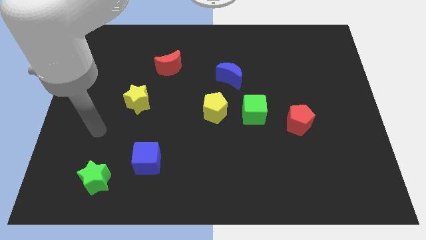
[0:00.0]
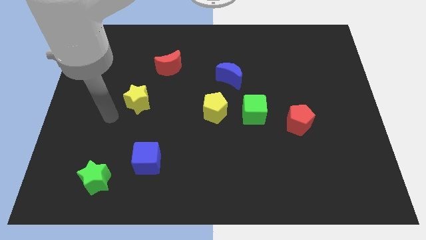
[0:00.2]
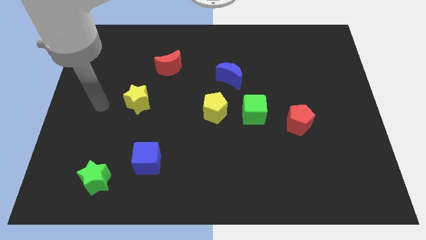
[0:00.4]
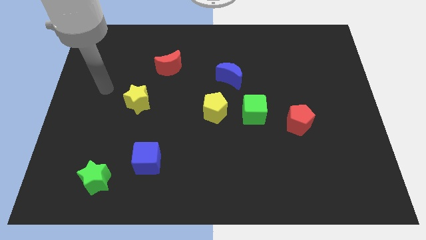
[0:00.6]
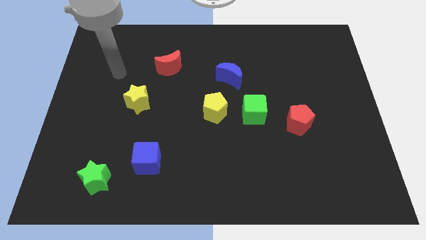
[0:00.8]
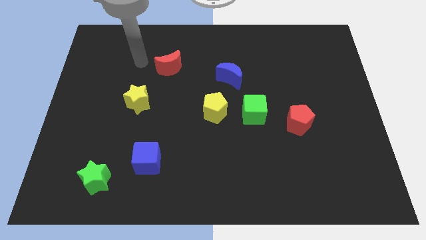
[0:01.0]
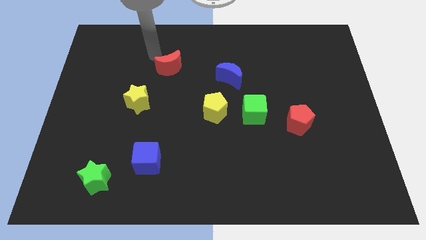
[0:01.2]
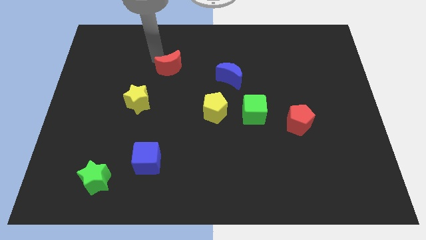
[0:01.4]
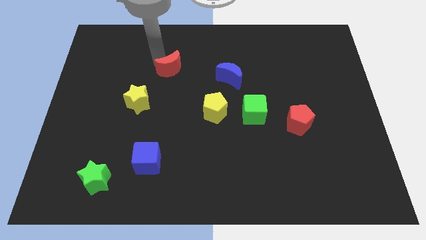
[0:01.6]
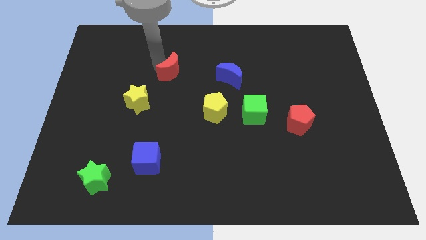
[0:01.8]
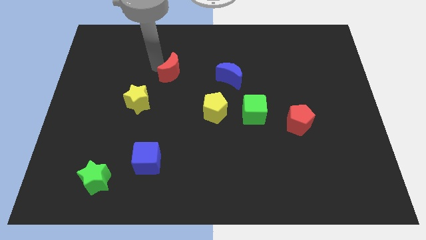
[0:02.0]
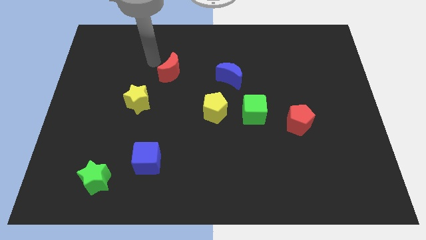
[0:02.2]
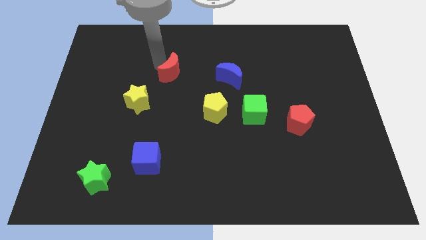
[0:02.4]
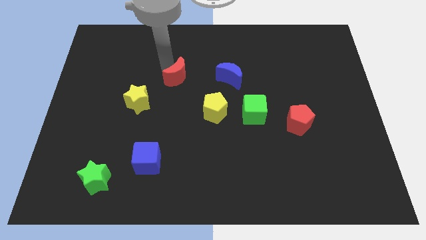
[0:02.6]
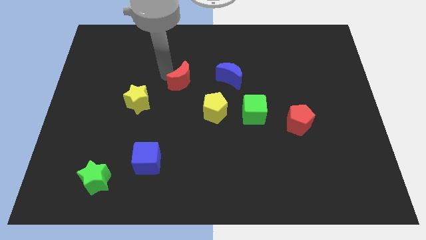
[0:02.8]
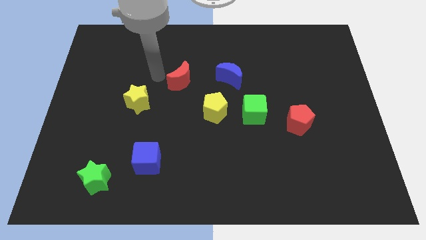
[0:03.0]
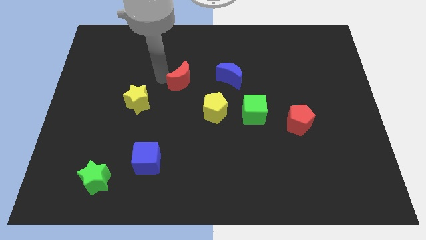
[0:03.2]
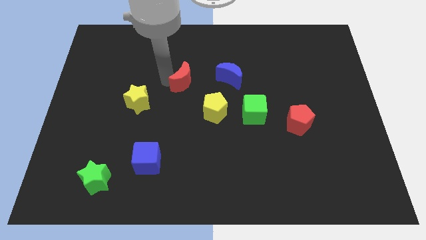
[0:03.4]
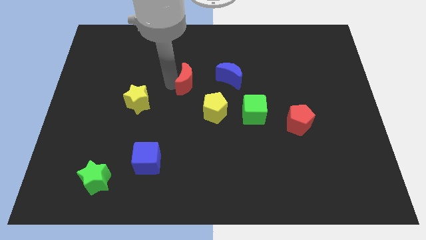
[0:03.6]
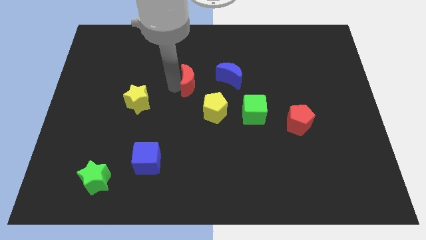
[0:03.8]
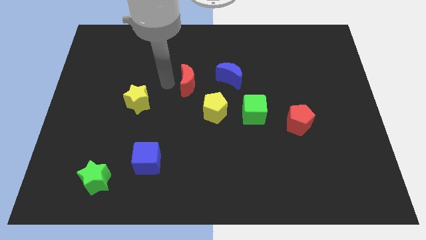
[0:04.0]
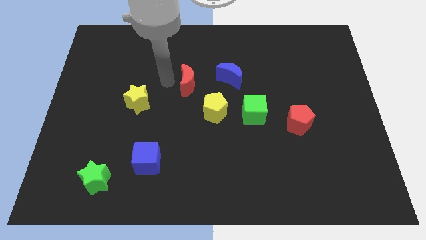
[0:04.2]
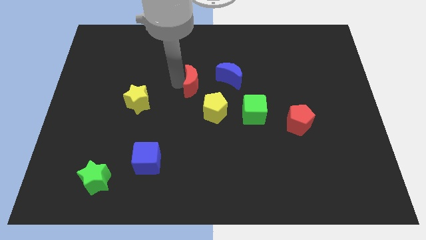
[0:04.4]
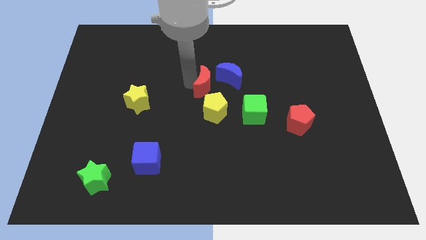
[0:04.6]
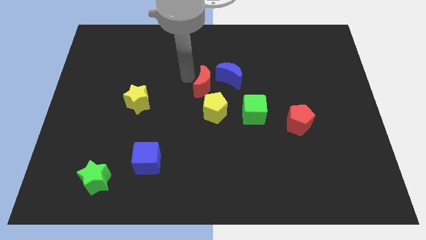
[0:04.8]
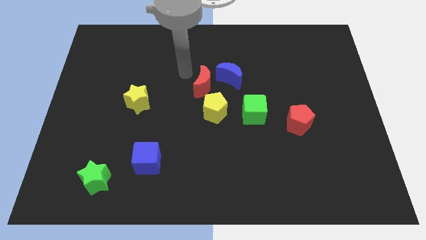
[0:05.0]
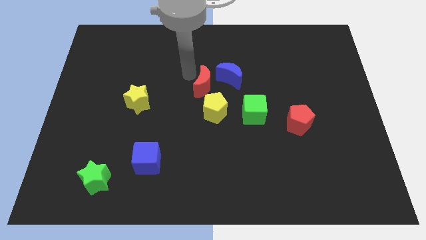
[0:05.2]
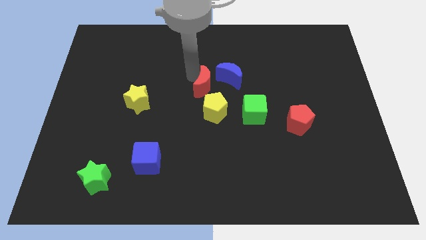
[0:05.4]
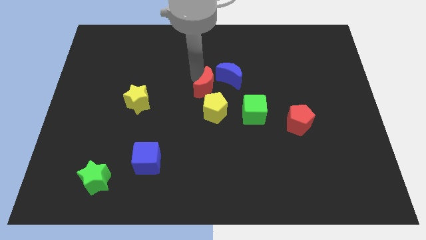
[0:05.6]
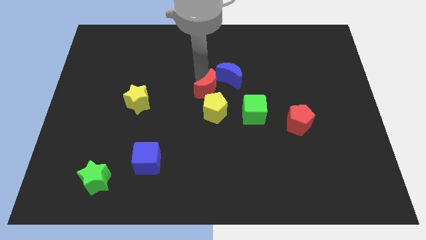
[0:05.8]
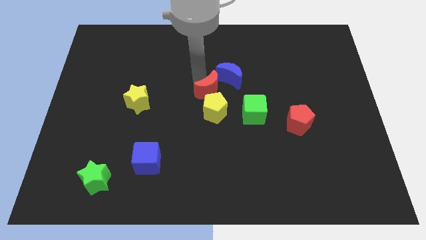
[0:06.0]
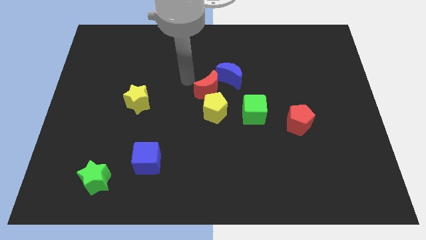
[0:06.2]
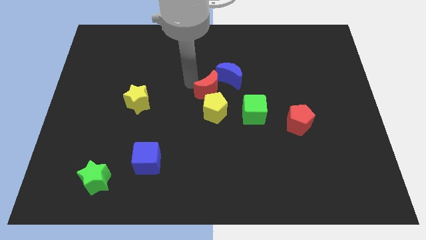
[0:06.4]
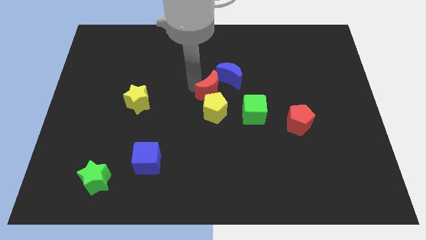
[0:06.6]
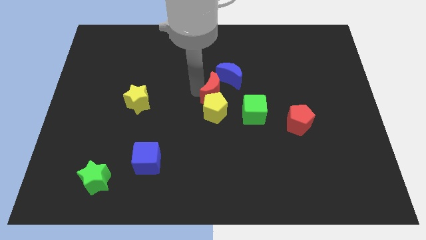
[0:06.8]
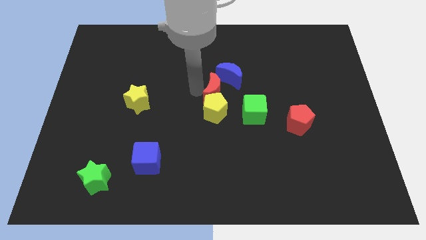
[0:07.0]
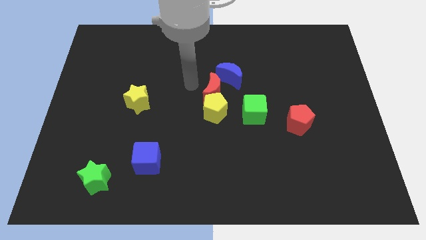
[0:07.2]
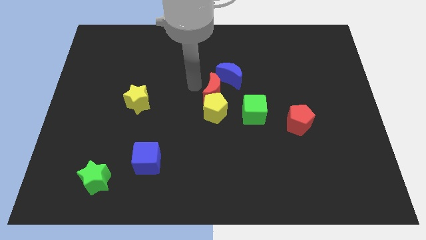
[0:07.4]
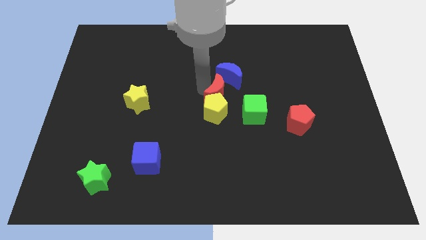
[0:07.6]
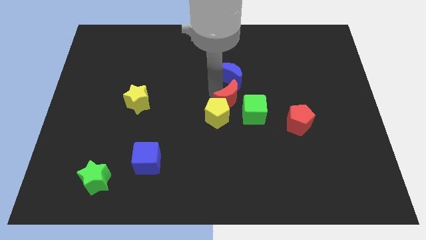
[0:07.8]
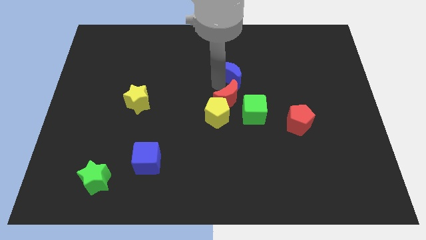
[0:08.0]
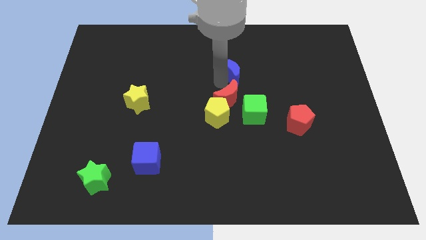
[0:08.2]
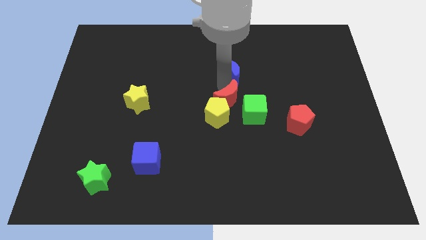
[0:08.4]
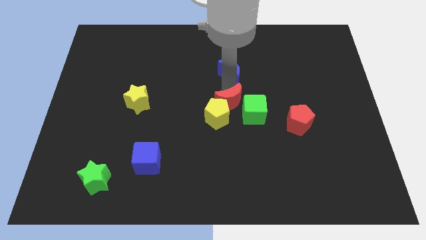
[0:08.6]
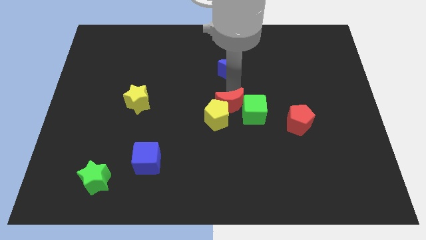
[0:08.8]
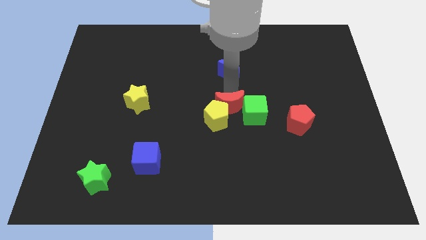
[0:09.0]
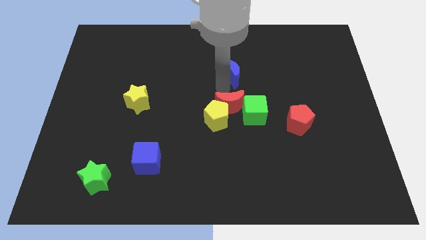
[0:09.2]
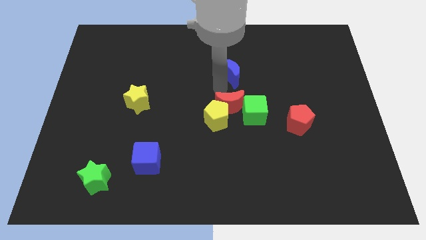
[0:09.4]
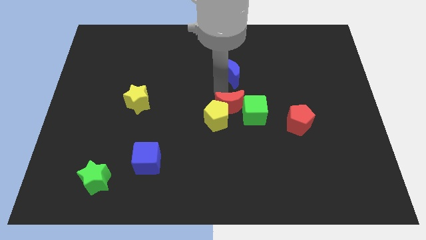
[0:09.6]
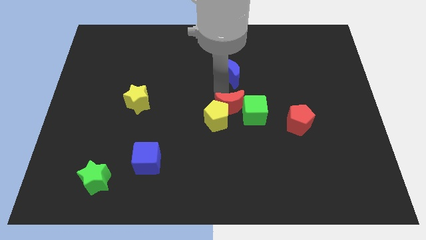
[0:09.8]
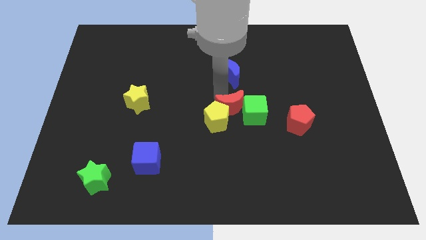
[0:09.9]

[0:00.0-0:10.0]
slide the red moon downwards and right diagonally

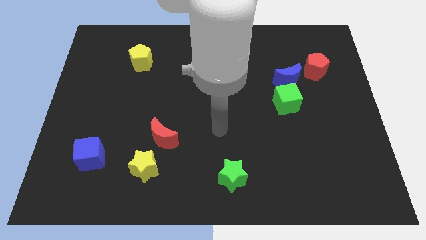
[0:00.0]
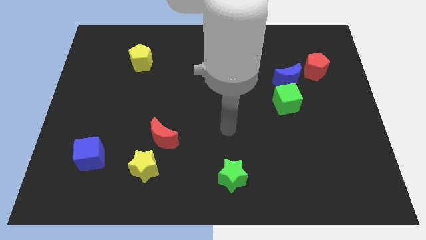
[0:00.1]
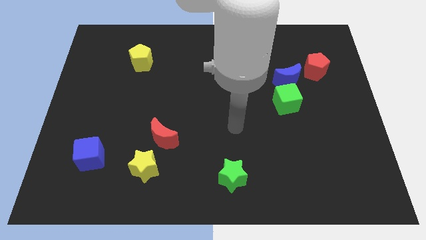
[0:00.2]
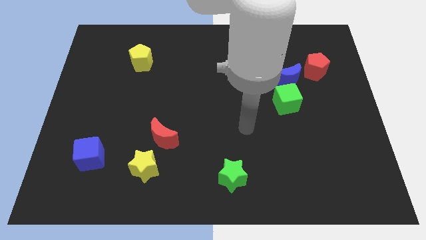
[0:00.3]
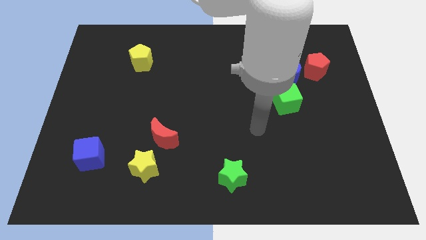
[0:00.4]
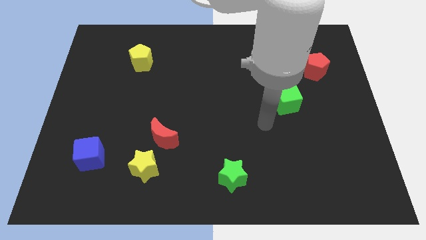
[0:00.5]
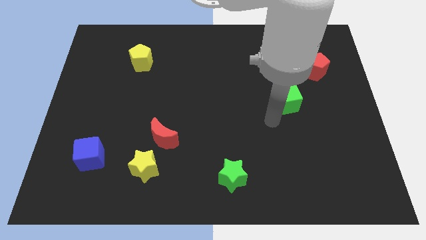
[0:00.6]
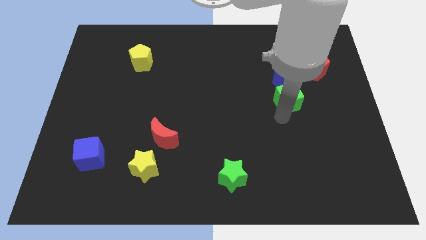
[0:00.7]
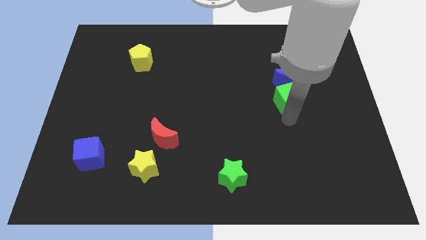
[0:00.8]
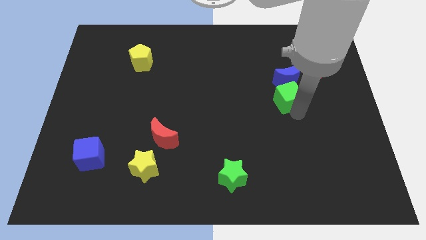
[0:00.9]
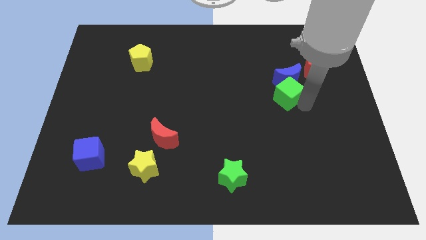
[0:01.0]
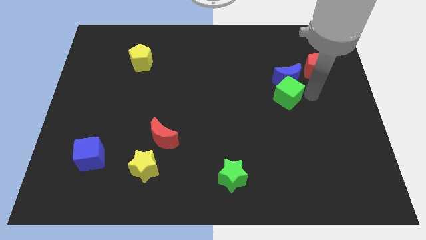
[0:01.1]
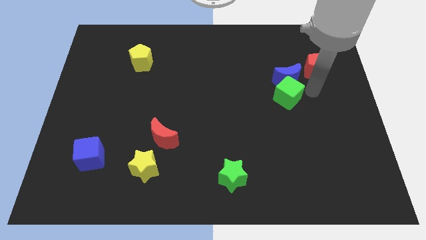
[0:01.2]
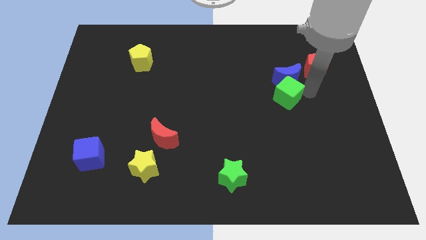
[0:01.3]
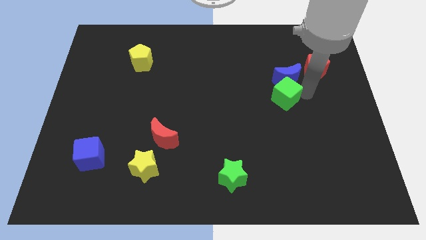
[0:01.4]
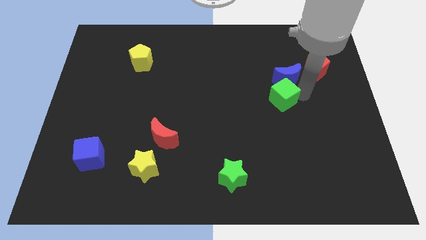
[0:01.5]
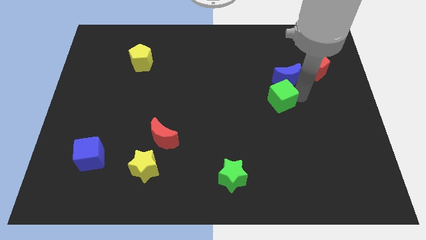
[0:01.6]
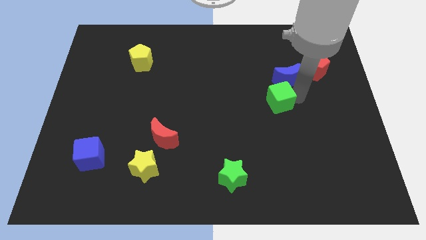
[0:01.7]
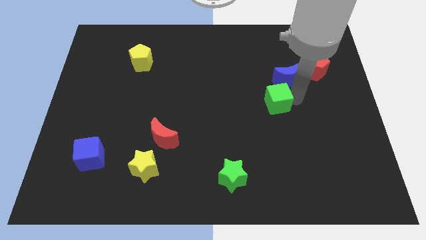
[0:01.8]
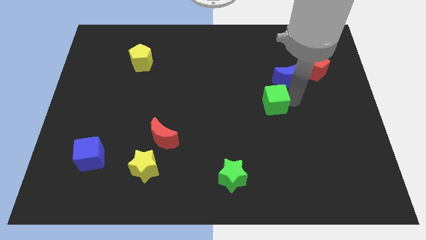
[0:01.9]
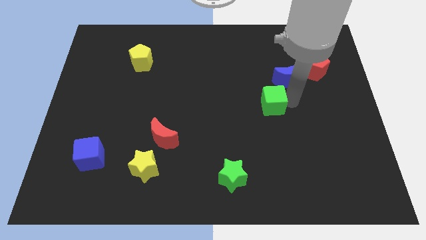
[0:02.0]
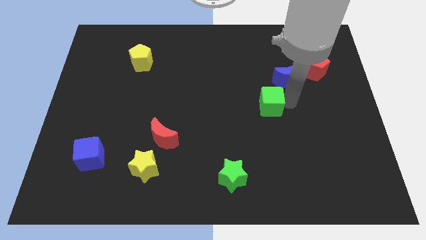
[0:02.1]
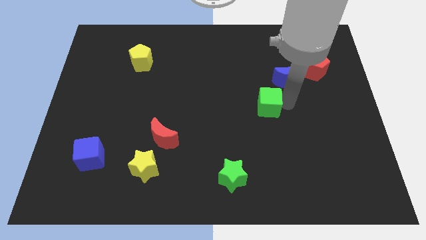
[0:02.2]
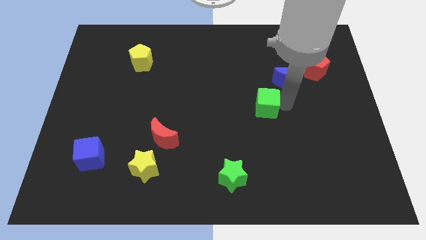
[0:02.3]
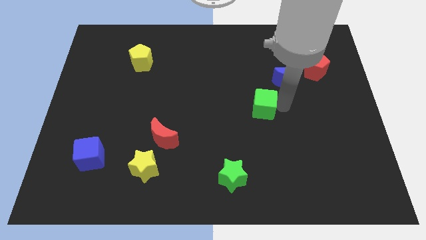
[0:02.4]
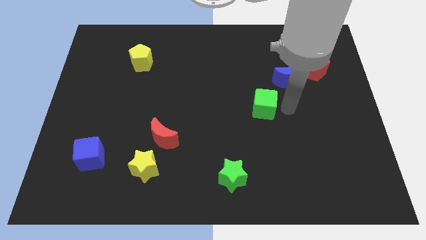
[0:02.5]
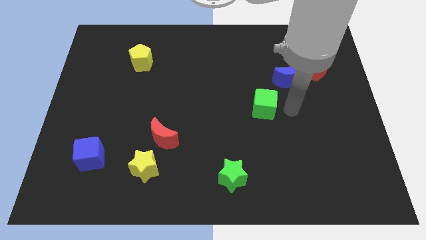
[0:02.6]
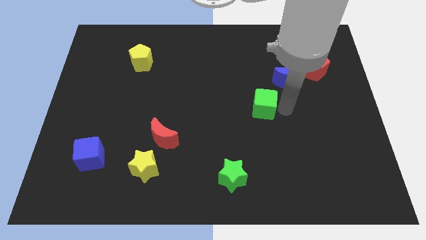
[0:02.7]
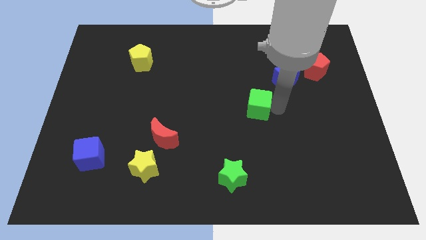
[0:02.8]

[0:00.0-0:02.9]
slightly slide the green cube to the left

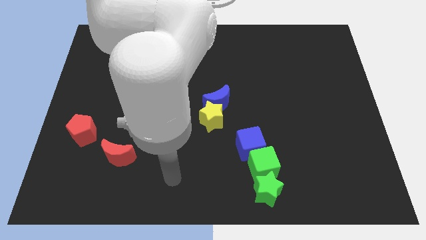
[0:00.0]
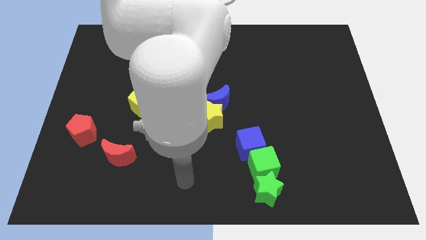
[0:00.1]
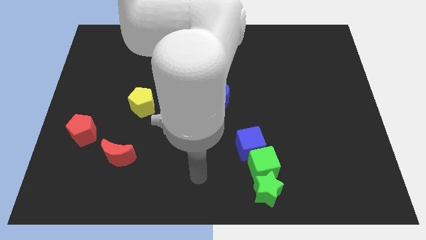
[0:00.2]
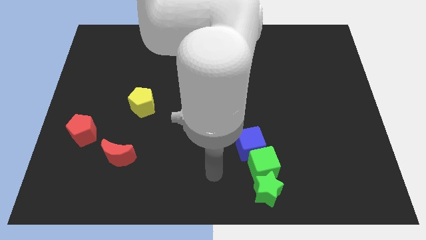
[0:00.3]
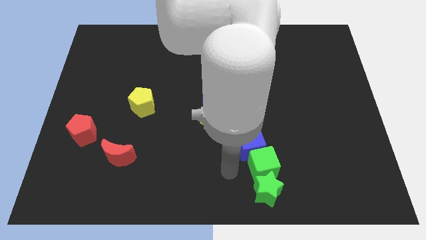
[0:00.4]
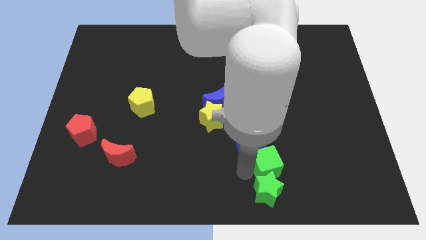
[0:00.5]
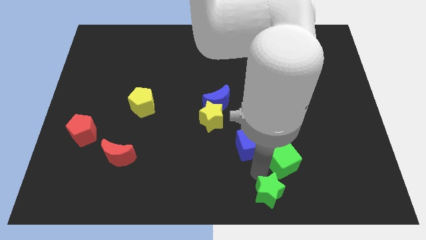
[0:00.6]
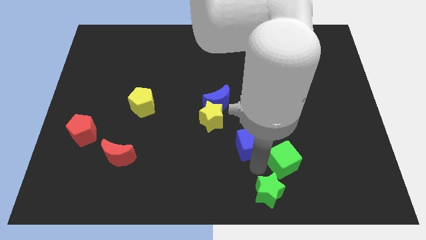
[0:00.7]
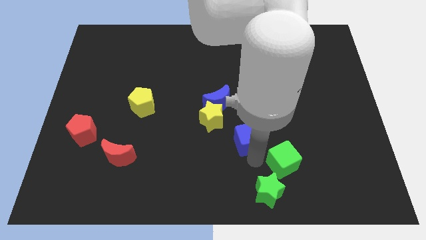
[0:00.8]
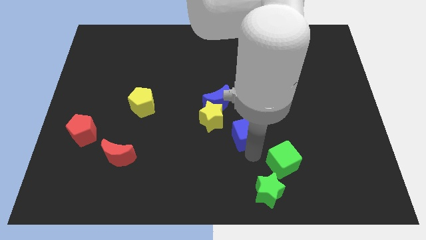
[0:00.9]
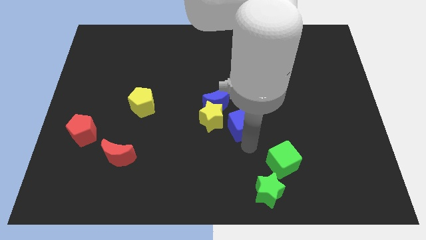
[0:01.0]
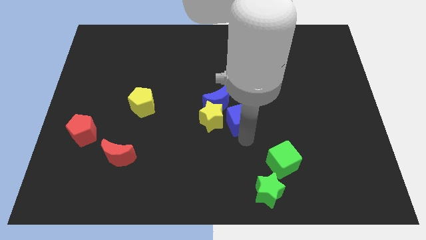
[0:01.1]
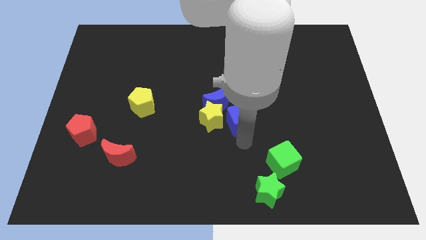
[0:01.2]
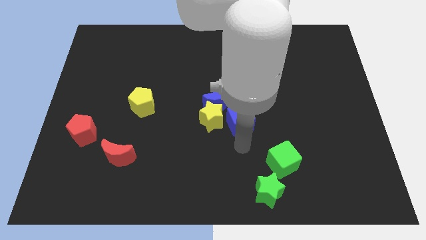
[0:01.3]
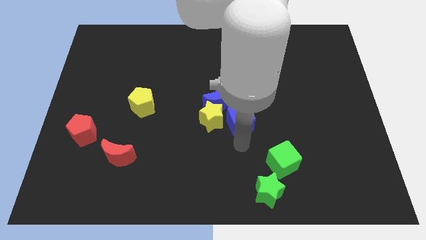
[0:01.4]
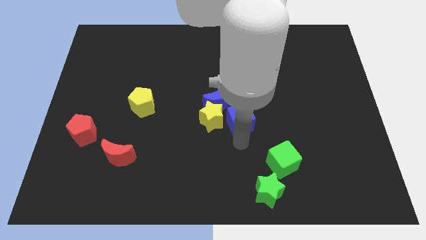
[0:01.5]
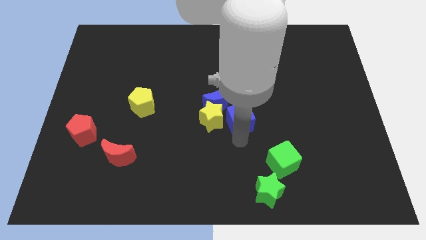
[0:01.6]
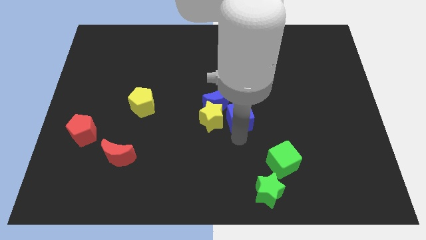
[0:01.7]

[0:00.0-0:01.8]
slide the blue cube up a little bit
